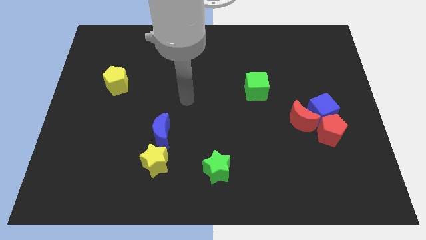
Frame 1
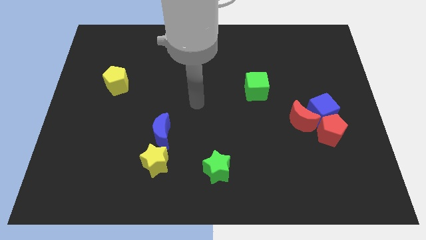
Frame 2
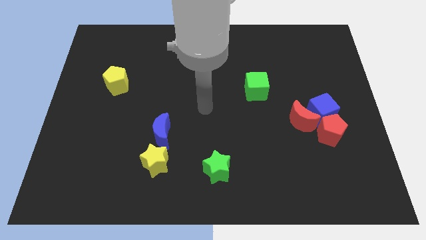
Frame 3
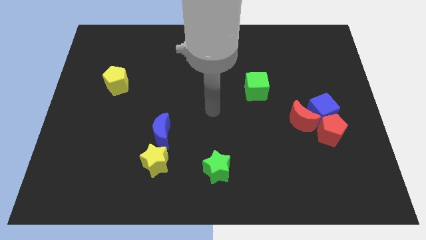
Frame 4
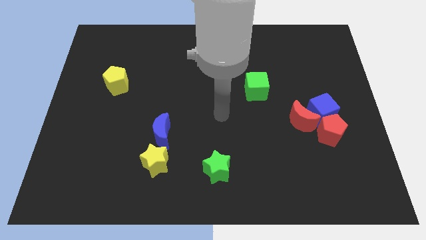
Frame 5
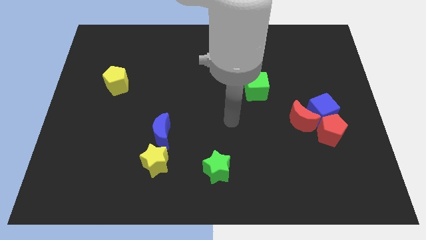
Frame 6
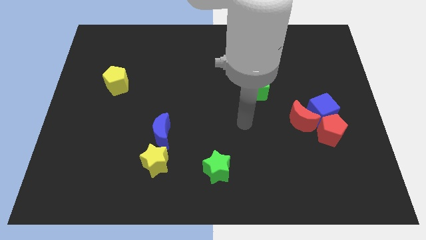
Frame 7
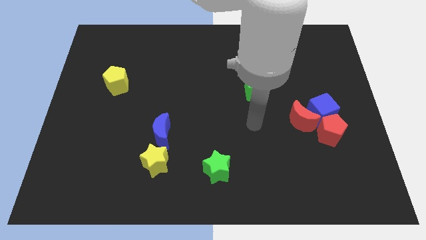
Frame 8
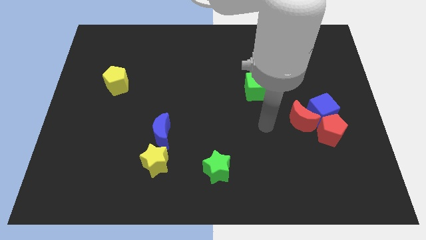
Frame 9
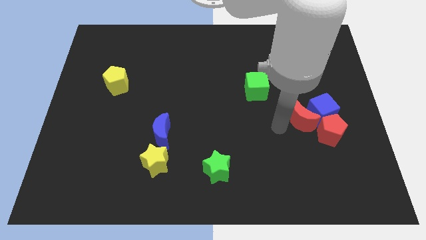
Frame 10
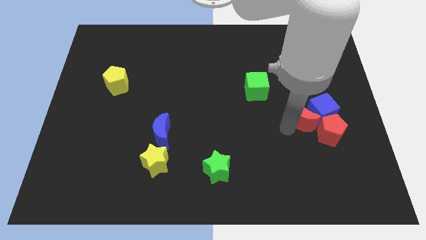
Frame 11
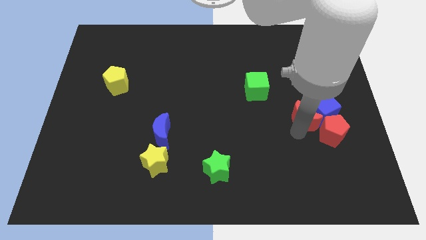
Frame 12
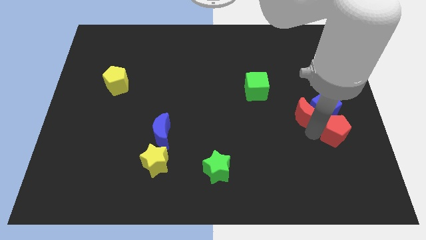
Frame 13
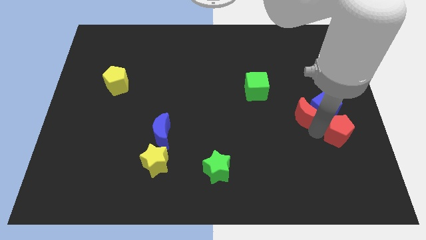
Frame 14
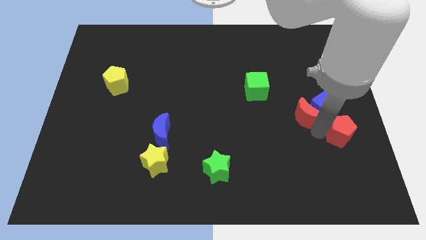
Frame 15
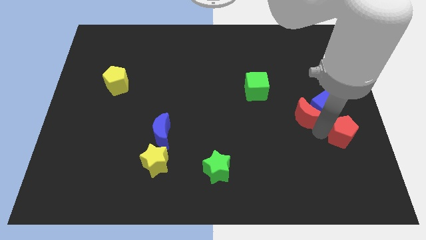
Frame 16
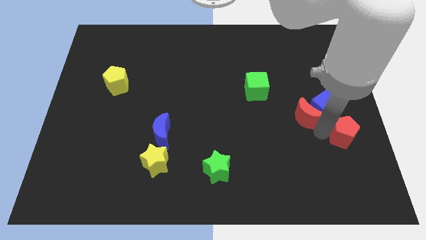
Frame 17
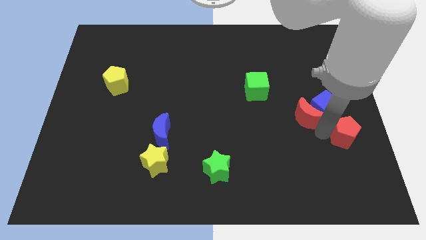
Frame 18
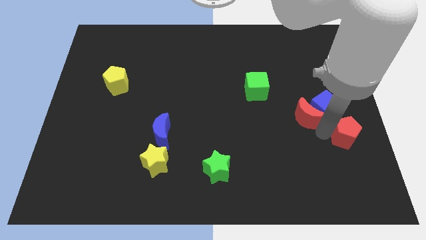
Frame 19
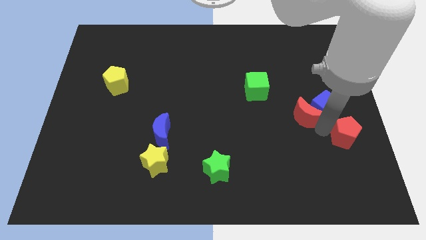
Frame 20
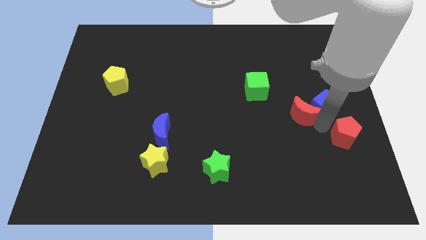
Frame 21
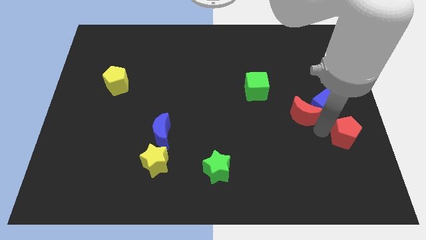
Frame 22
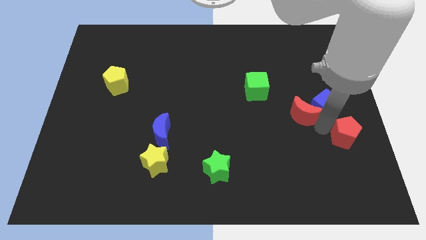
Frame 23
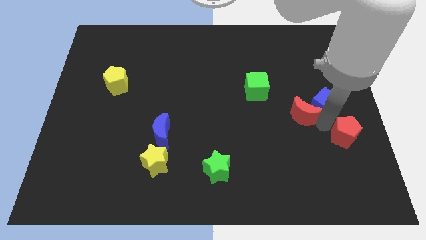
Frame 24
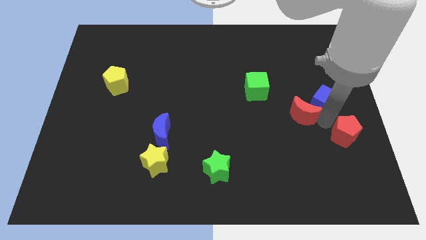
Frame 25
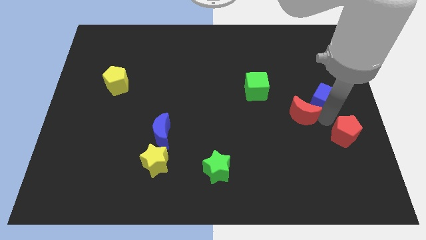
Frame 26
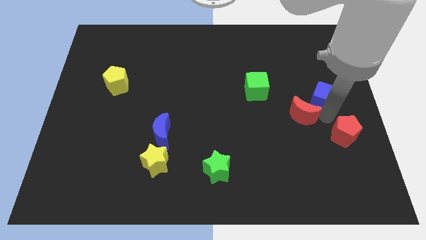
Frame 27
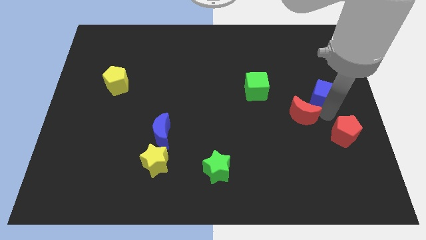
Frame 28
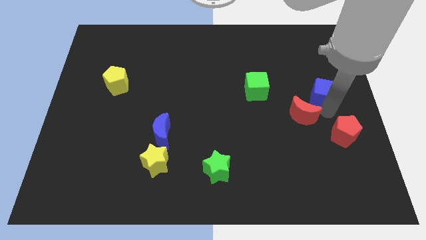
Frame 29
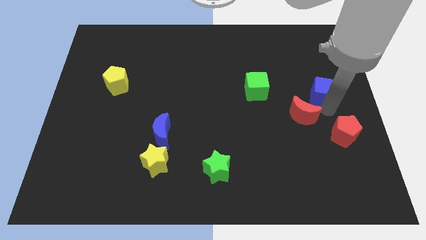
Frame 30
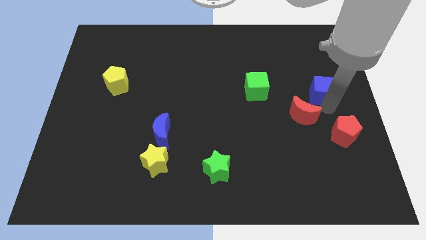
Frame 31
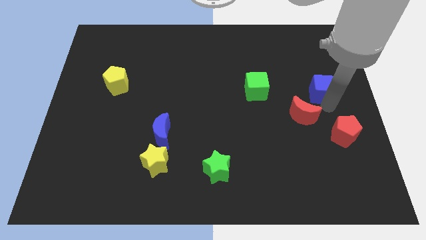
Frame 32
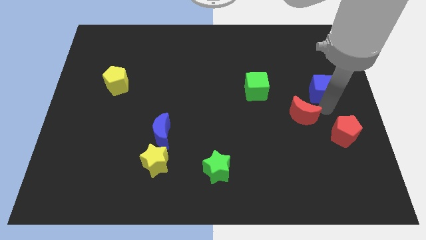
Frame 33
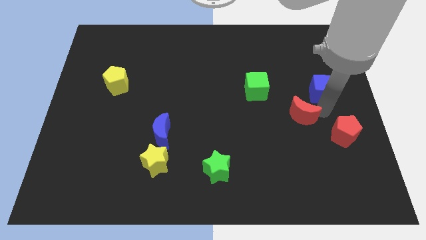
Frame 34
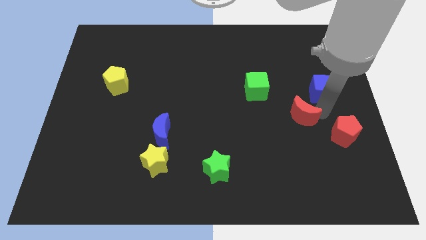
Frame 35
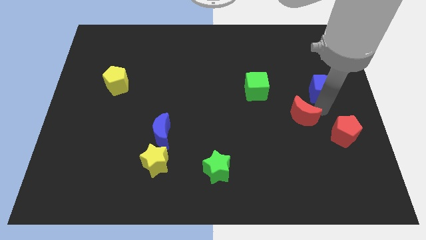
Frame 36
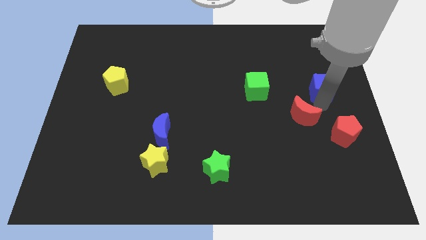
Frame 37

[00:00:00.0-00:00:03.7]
pull the blue cube apart from the red moon and red pentagon

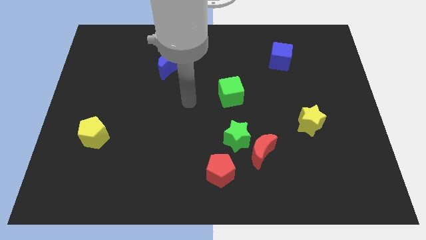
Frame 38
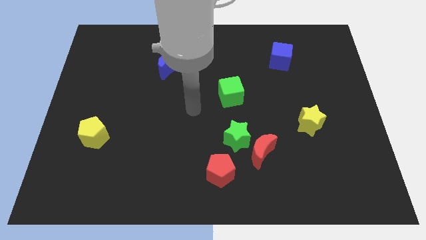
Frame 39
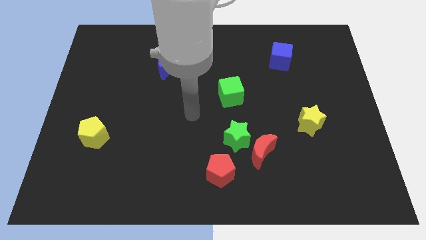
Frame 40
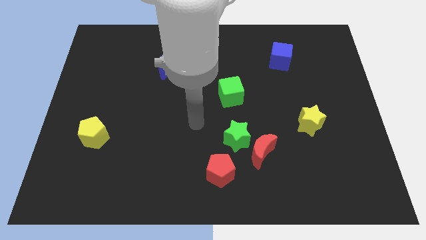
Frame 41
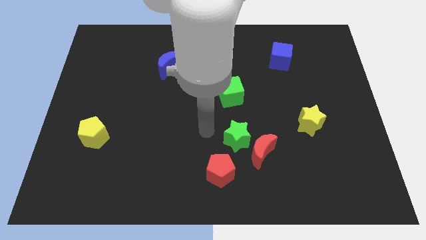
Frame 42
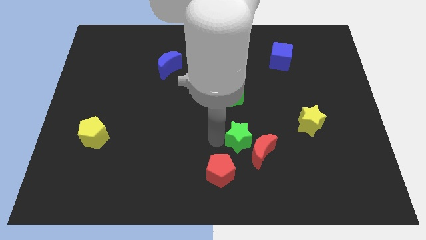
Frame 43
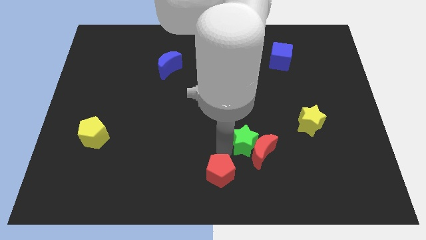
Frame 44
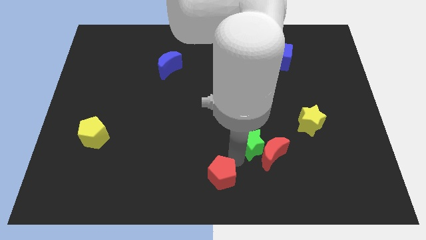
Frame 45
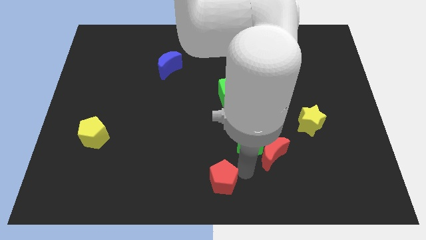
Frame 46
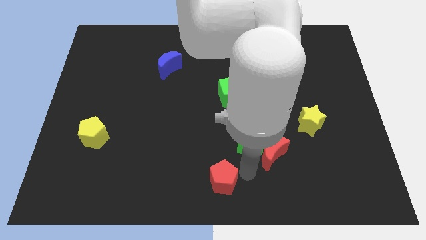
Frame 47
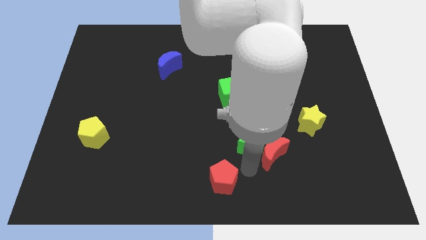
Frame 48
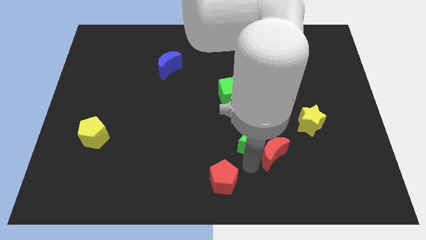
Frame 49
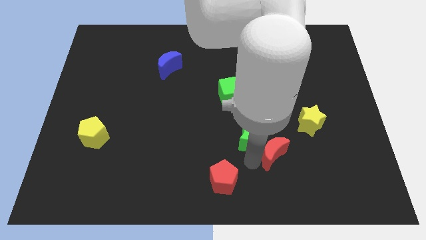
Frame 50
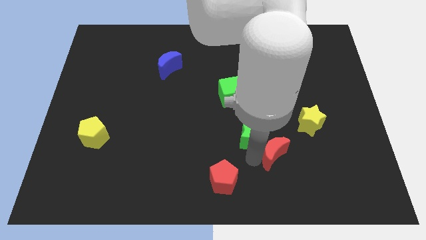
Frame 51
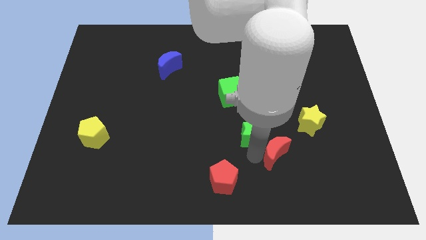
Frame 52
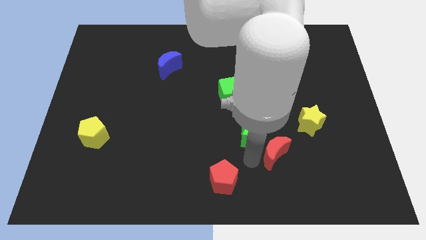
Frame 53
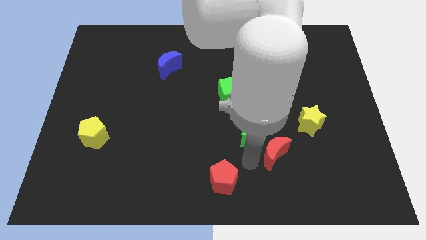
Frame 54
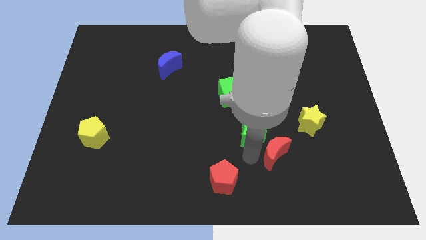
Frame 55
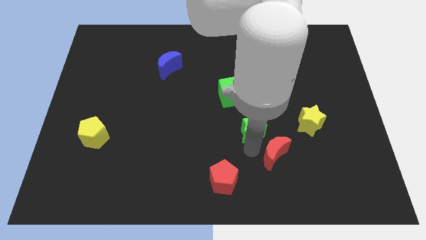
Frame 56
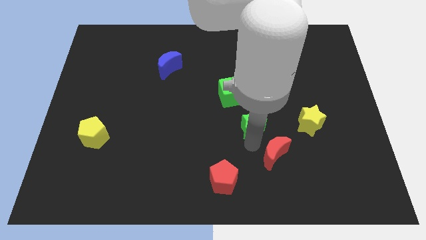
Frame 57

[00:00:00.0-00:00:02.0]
separate the green star from the red moon and red pentagon

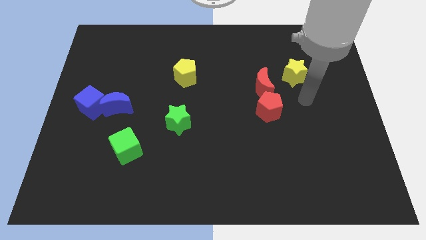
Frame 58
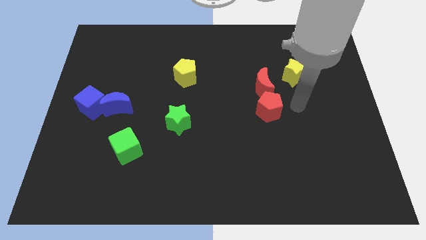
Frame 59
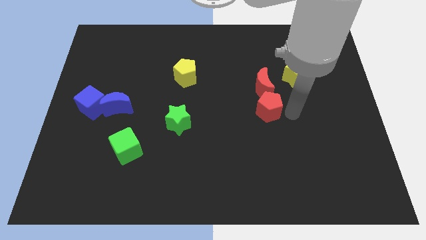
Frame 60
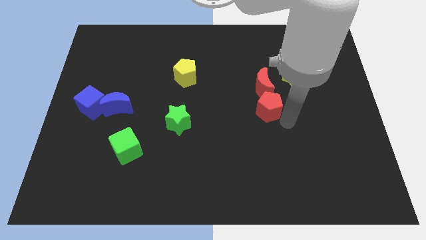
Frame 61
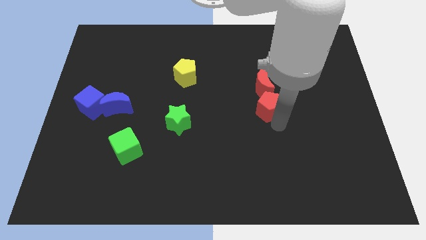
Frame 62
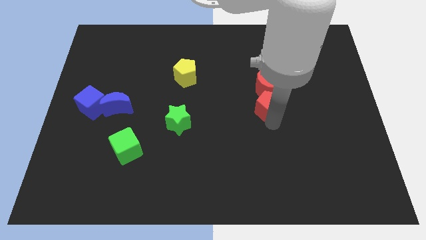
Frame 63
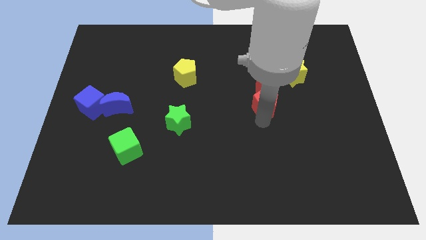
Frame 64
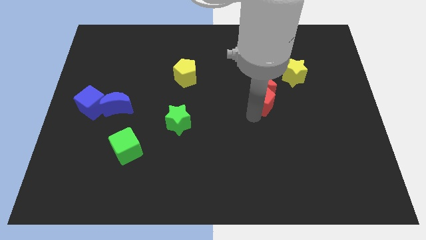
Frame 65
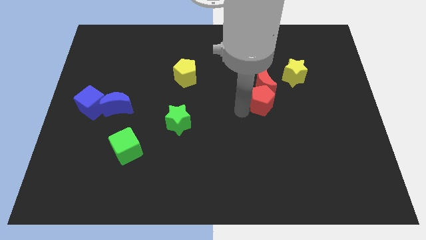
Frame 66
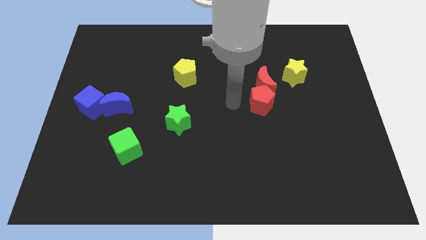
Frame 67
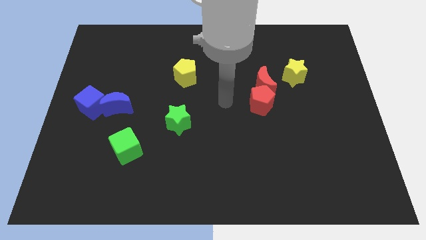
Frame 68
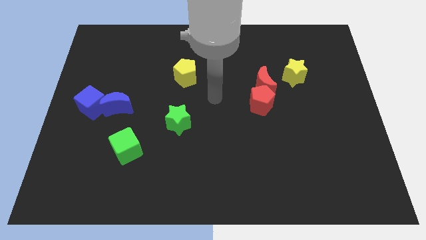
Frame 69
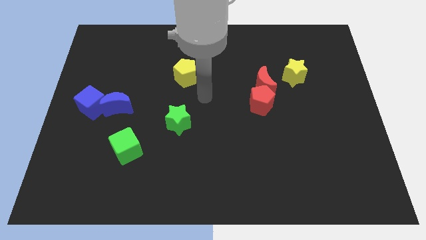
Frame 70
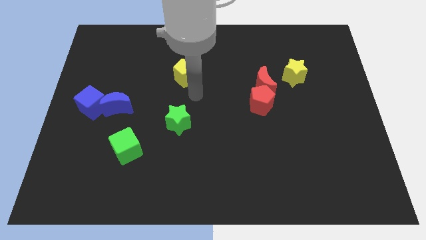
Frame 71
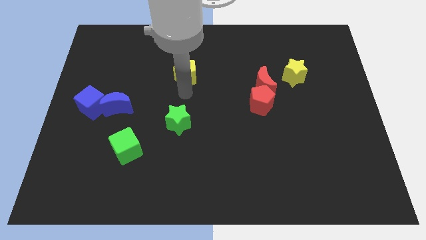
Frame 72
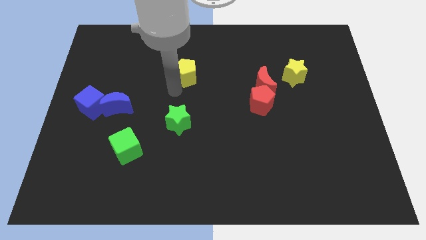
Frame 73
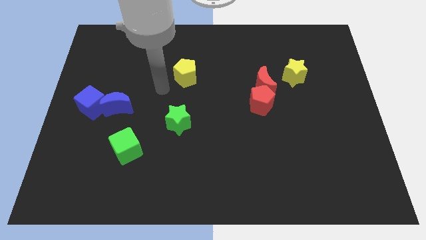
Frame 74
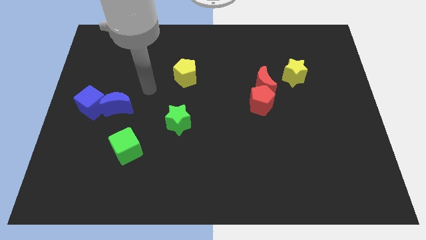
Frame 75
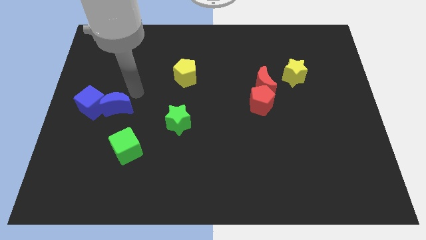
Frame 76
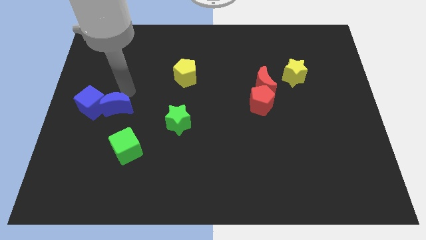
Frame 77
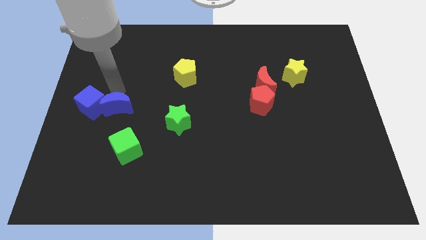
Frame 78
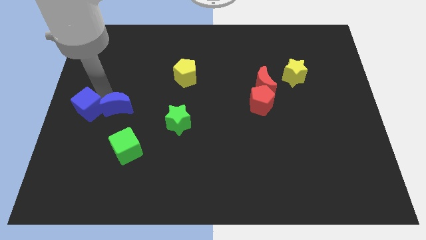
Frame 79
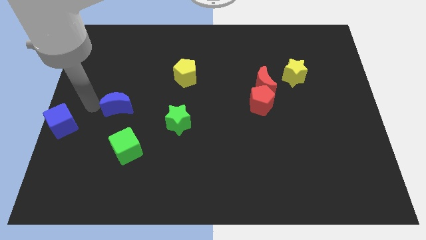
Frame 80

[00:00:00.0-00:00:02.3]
move the blue moon away from the blue cube

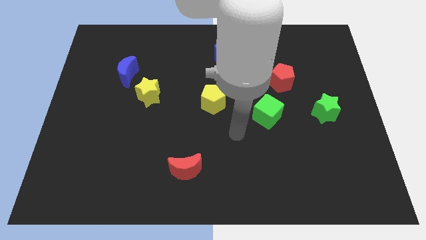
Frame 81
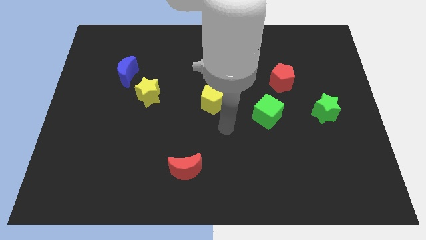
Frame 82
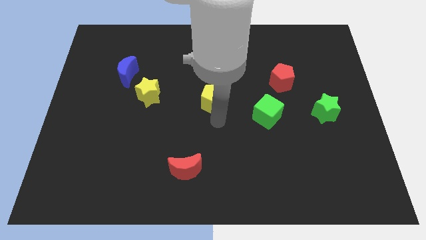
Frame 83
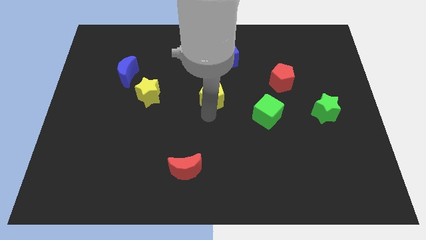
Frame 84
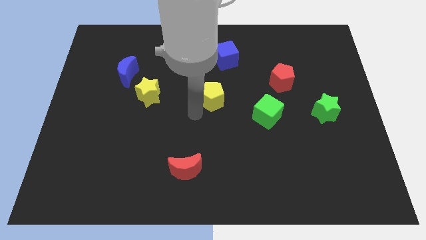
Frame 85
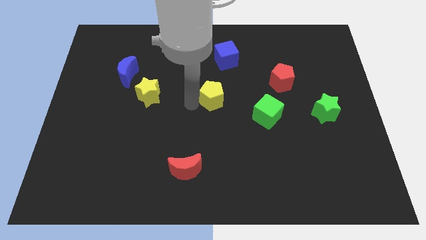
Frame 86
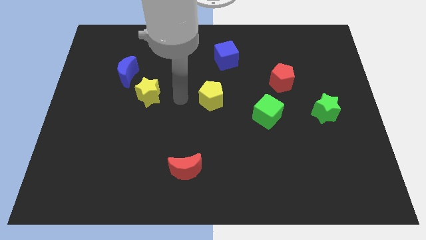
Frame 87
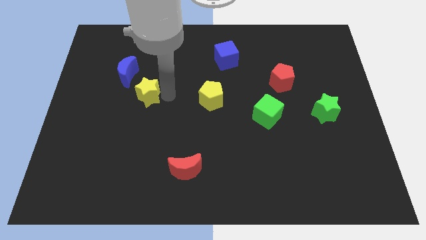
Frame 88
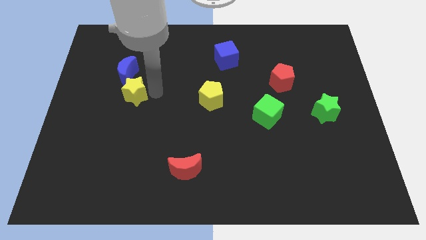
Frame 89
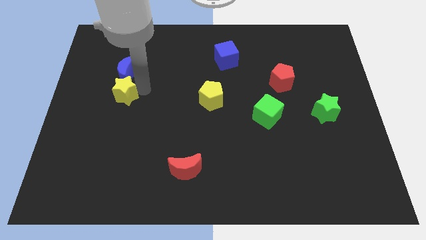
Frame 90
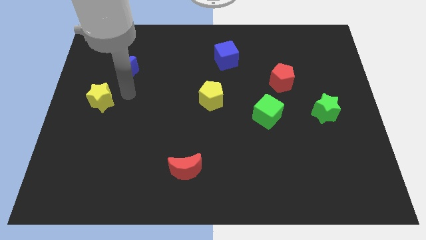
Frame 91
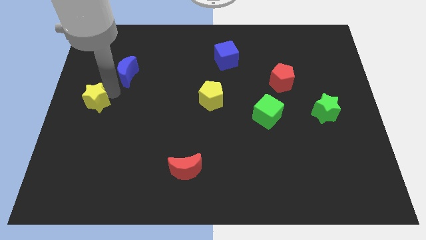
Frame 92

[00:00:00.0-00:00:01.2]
separate the blue moon from the yellow star

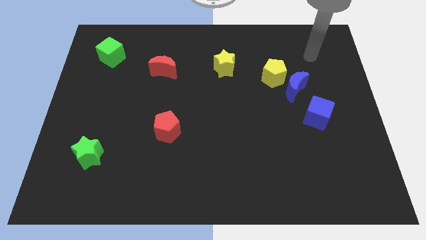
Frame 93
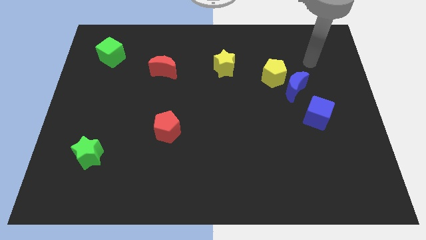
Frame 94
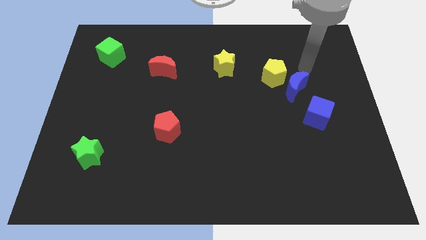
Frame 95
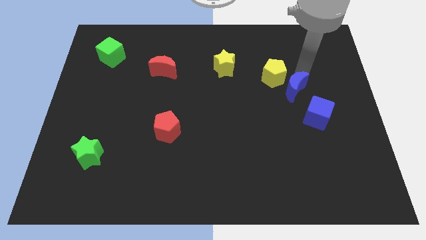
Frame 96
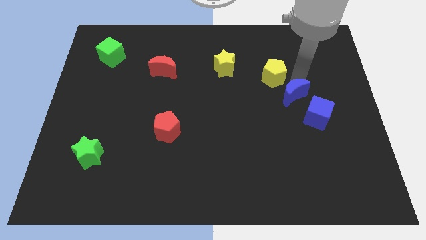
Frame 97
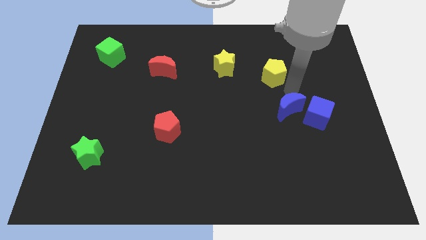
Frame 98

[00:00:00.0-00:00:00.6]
move the yellow pentagon away from the blue moon
